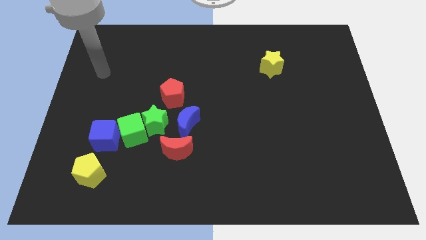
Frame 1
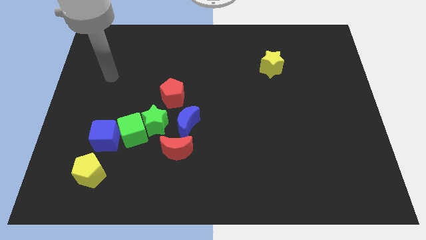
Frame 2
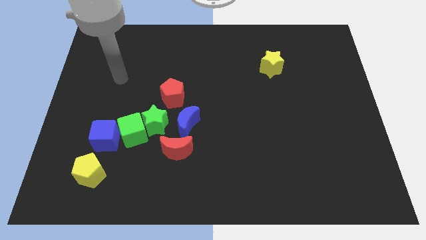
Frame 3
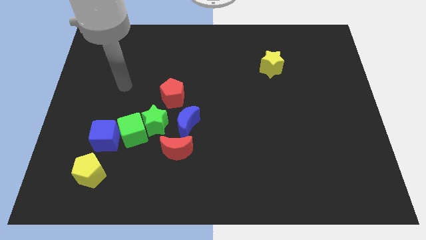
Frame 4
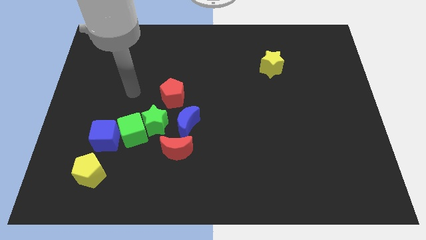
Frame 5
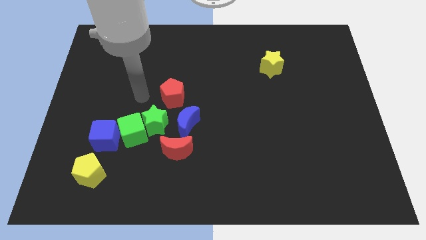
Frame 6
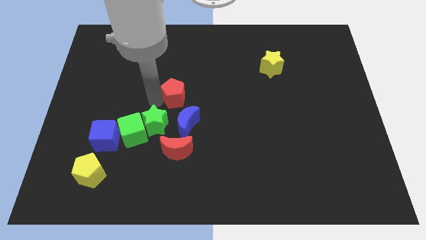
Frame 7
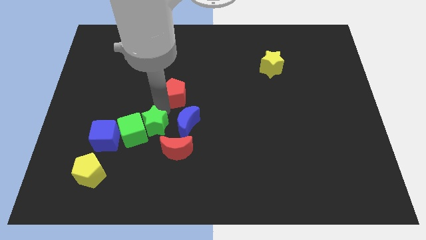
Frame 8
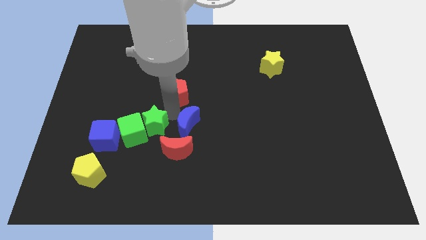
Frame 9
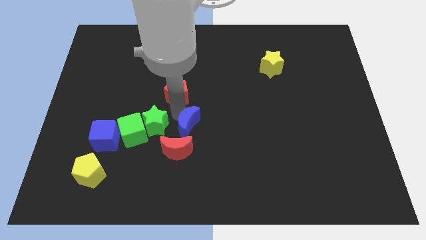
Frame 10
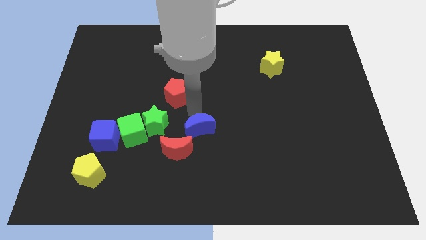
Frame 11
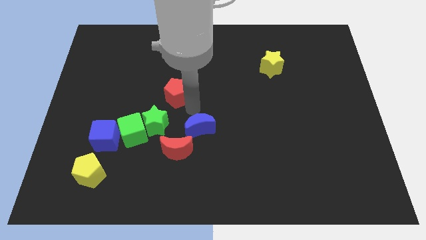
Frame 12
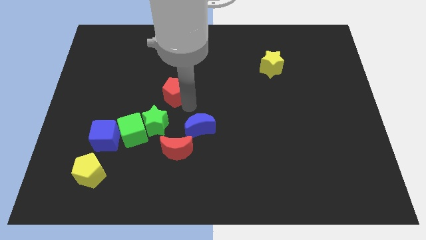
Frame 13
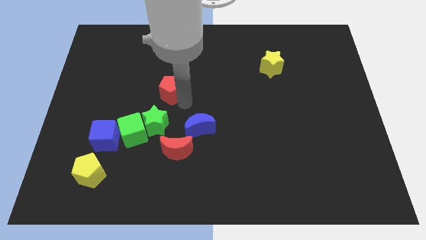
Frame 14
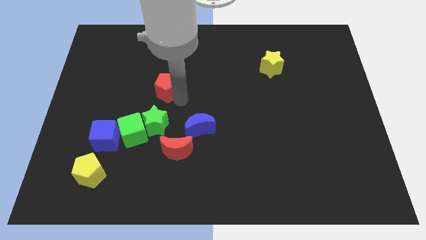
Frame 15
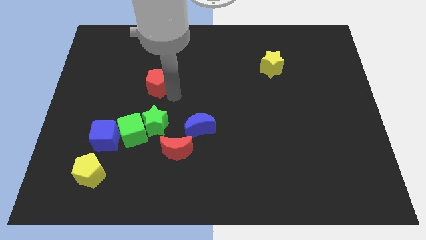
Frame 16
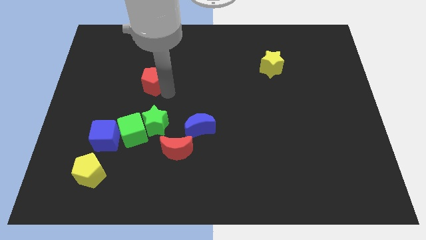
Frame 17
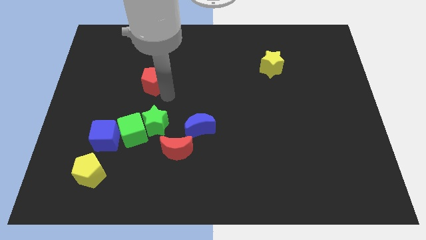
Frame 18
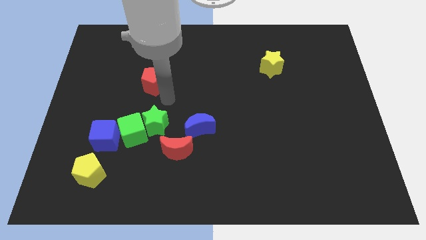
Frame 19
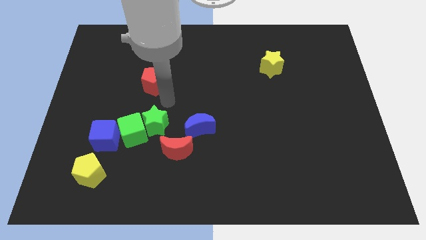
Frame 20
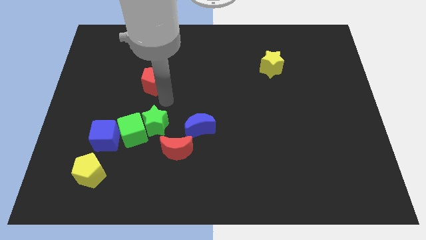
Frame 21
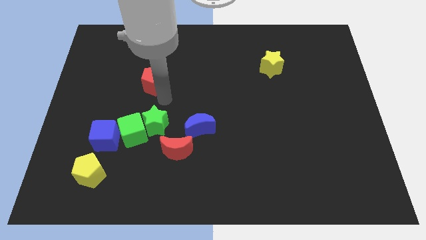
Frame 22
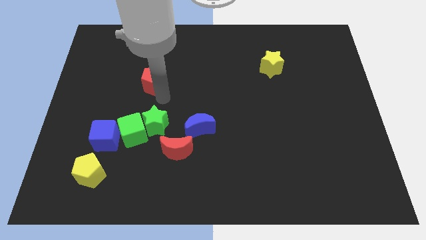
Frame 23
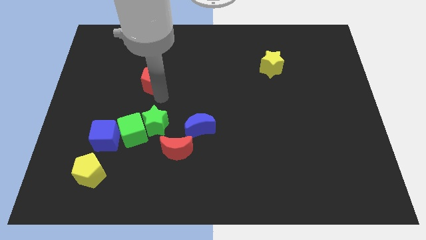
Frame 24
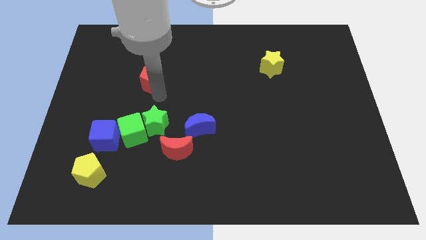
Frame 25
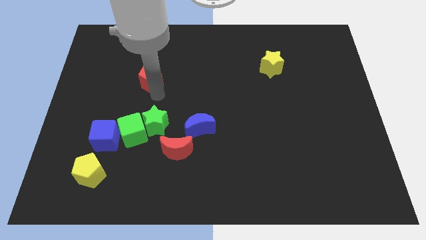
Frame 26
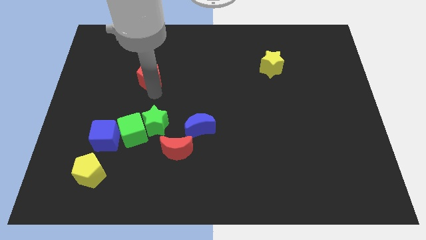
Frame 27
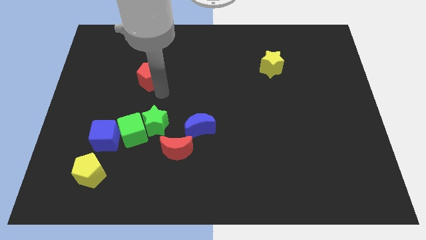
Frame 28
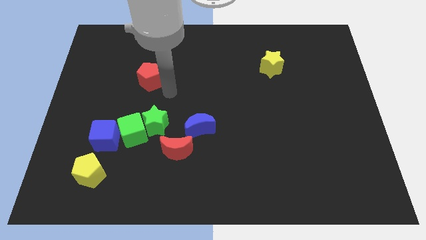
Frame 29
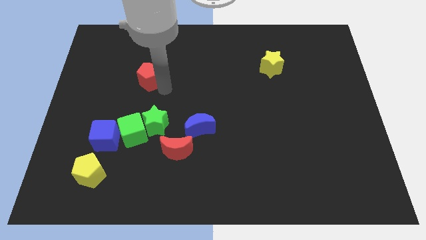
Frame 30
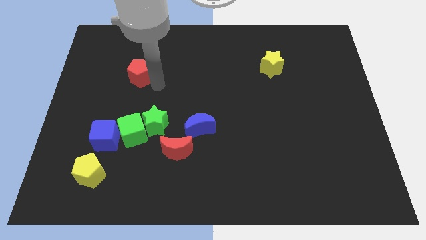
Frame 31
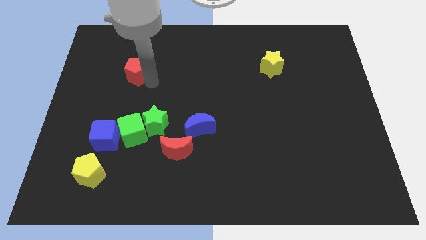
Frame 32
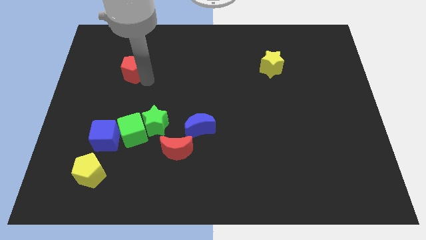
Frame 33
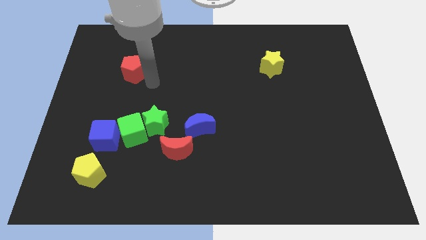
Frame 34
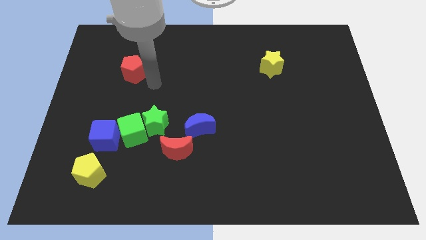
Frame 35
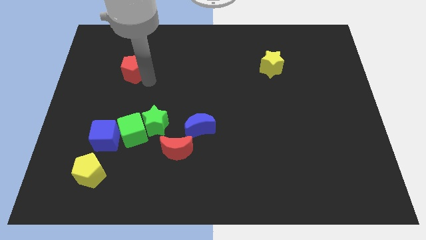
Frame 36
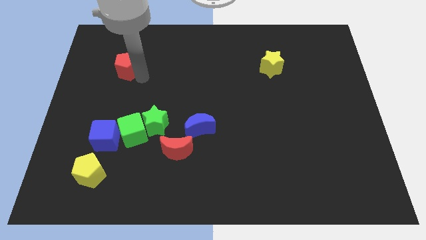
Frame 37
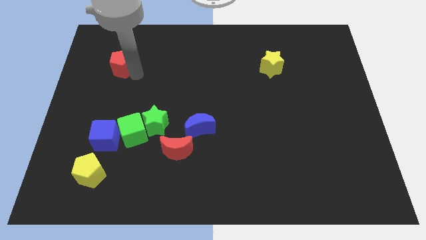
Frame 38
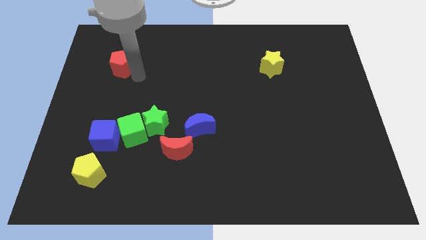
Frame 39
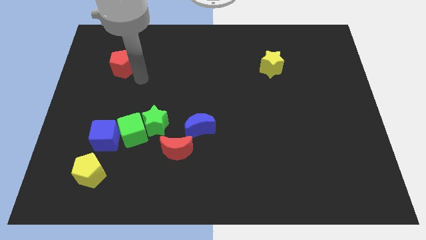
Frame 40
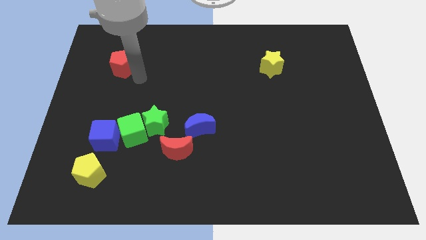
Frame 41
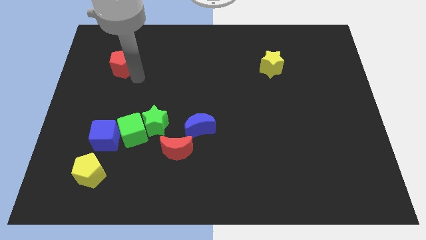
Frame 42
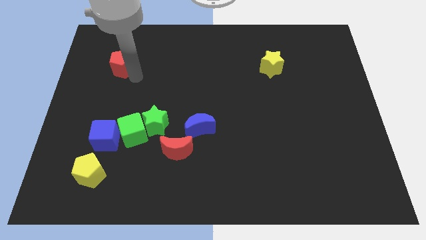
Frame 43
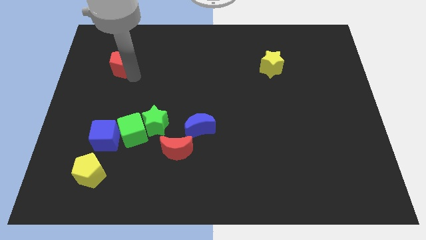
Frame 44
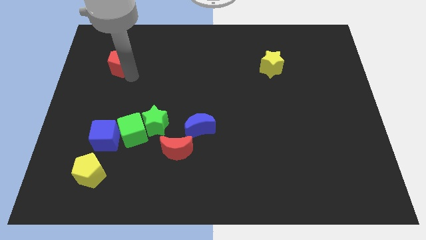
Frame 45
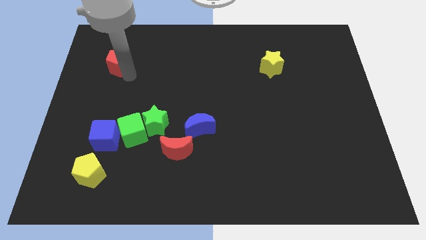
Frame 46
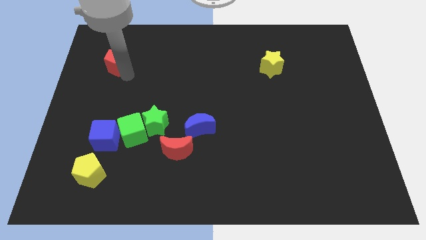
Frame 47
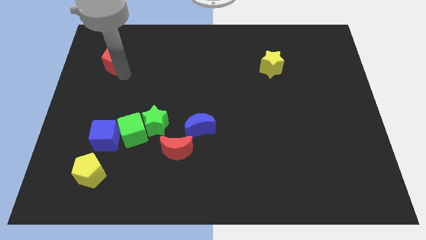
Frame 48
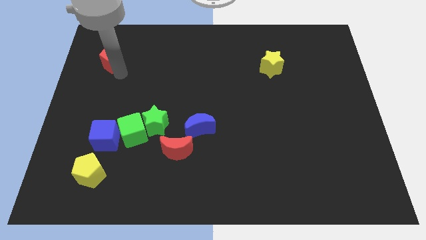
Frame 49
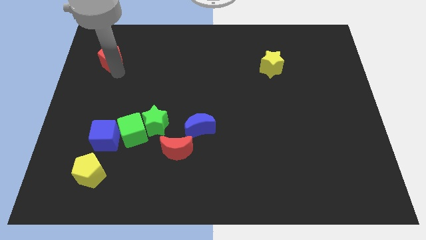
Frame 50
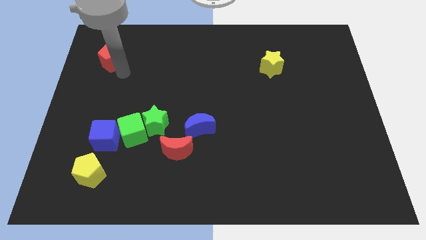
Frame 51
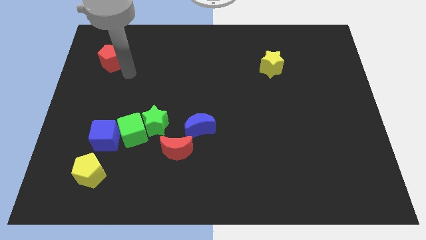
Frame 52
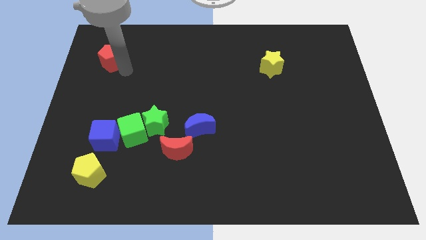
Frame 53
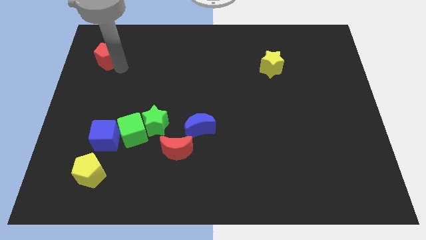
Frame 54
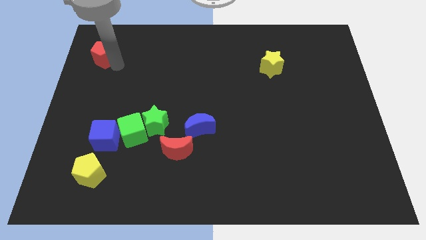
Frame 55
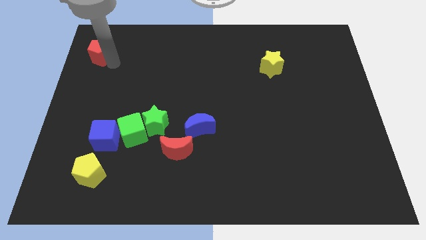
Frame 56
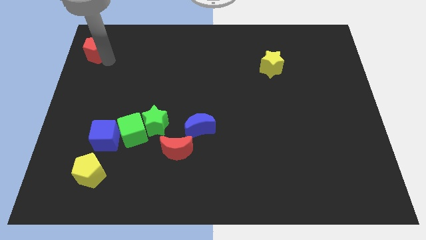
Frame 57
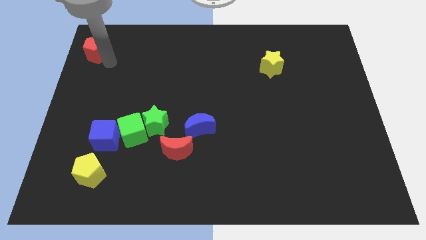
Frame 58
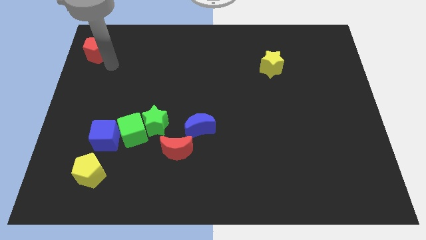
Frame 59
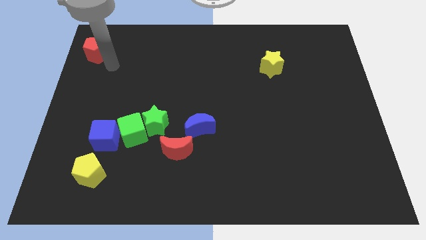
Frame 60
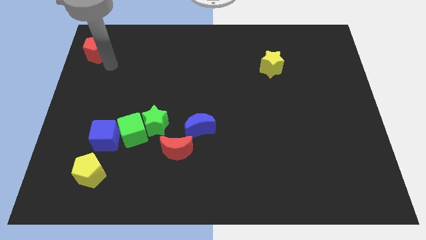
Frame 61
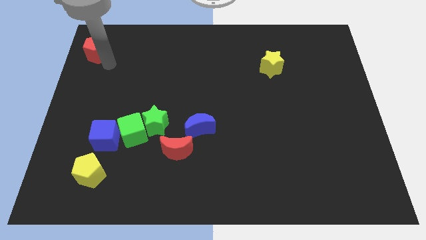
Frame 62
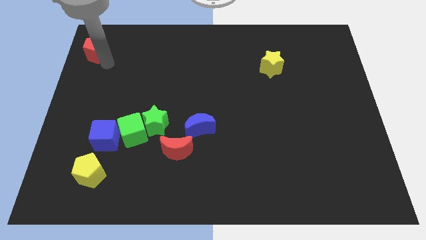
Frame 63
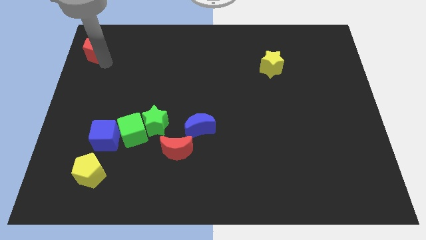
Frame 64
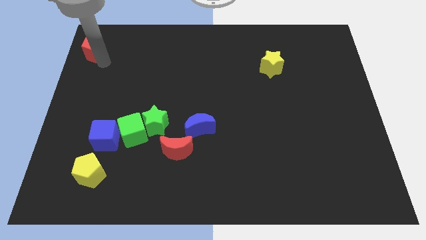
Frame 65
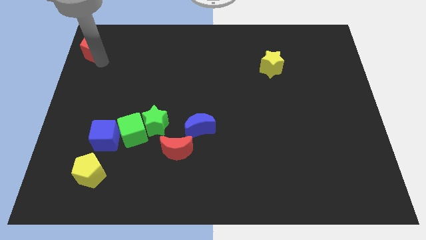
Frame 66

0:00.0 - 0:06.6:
slide the red pentagon to the top left of the board
